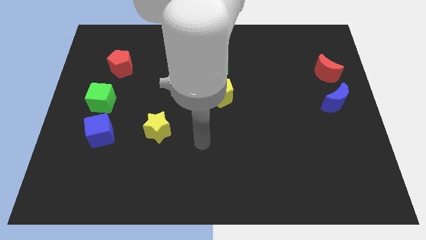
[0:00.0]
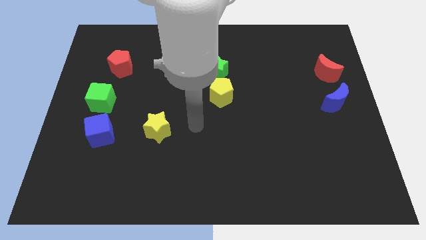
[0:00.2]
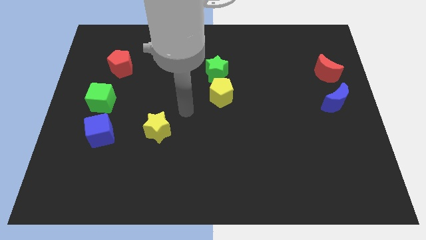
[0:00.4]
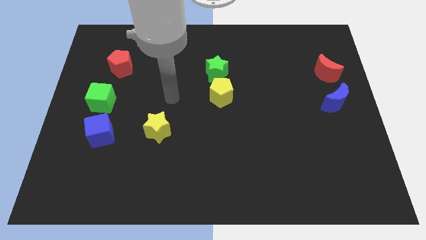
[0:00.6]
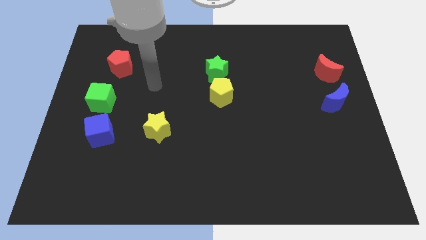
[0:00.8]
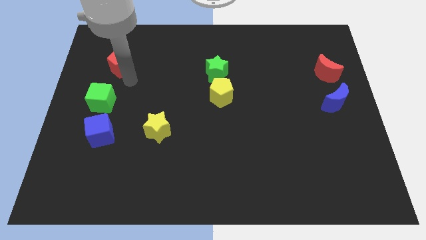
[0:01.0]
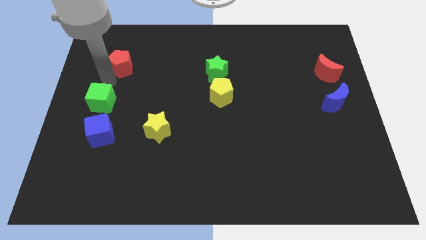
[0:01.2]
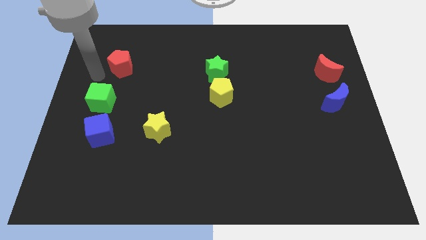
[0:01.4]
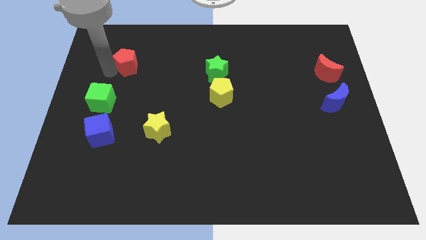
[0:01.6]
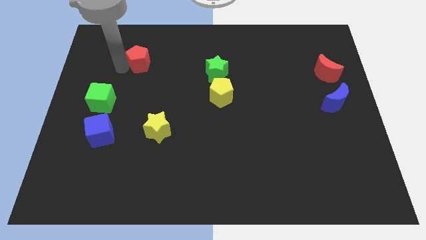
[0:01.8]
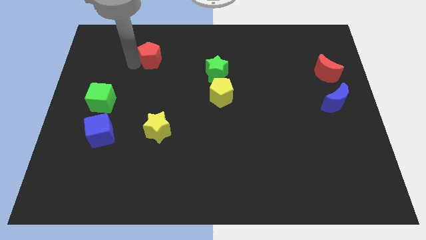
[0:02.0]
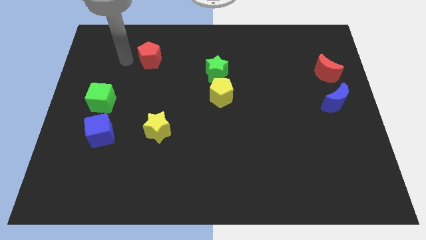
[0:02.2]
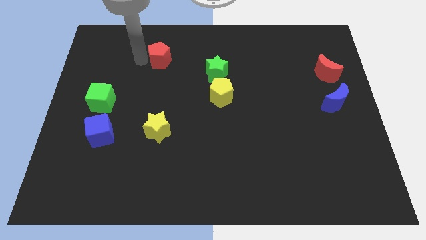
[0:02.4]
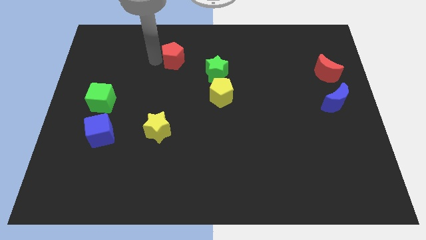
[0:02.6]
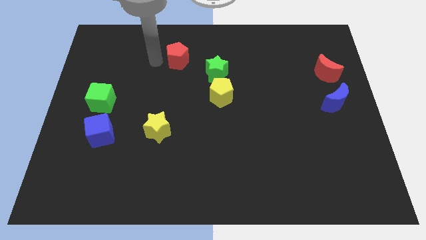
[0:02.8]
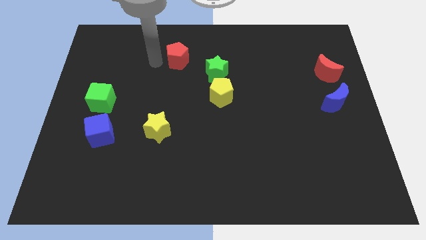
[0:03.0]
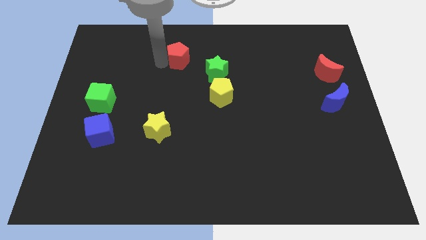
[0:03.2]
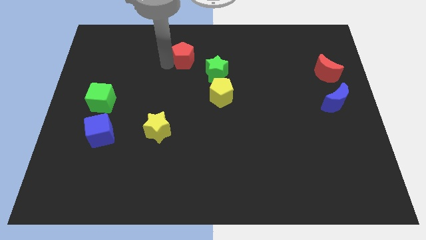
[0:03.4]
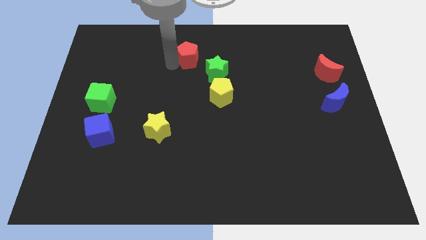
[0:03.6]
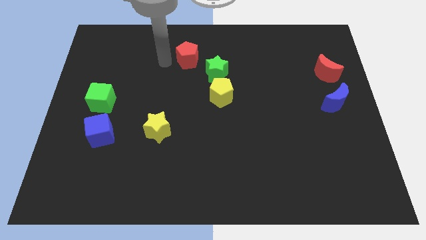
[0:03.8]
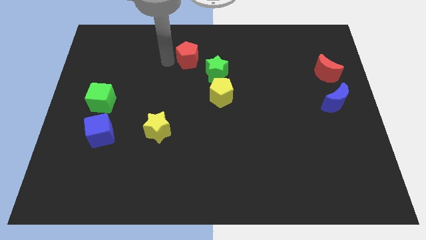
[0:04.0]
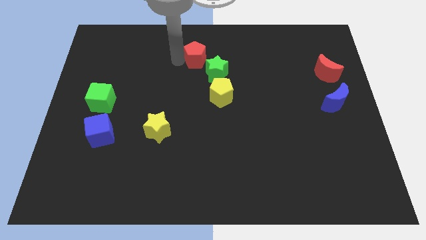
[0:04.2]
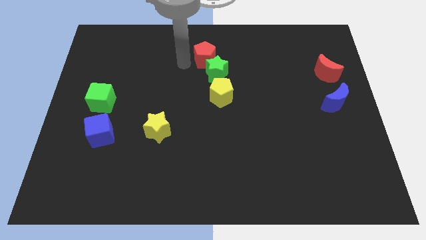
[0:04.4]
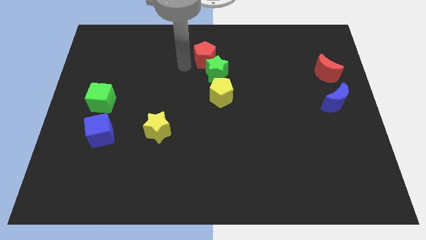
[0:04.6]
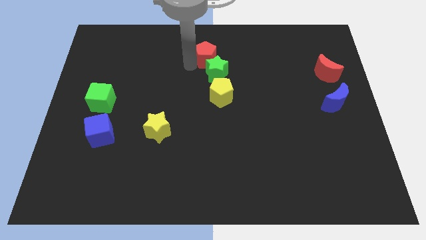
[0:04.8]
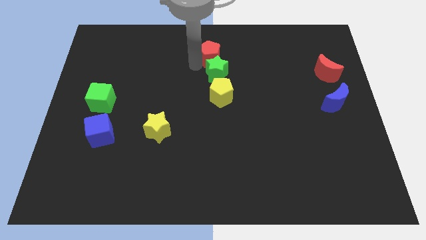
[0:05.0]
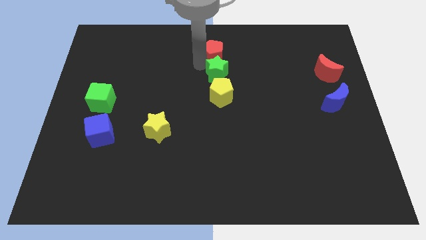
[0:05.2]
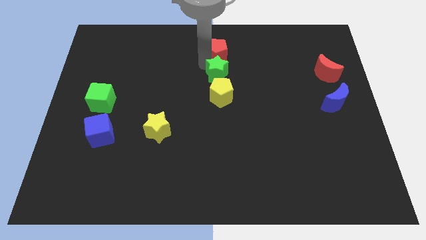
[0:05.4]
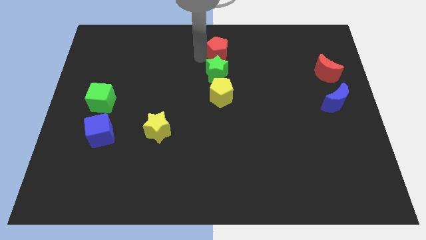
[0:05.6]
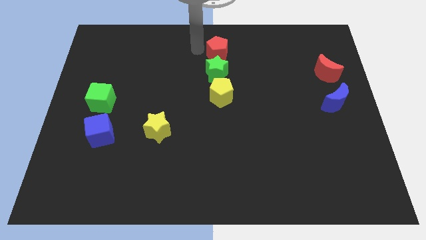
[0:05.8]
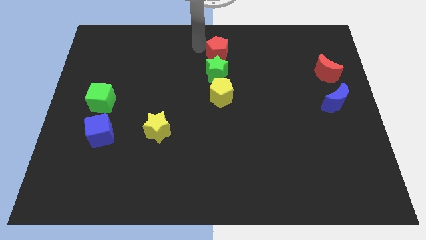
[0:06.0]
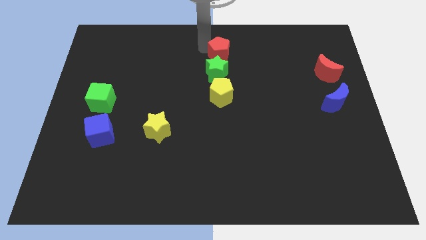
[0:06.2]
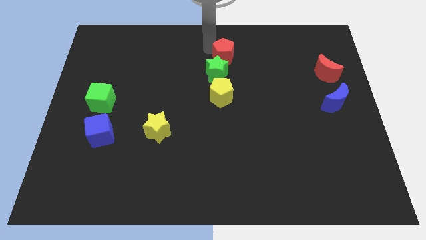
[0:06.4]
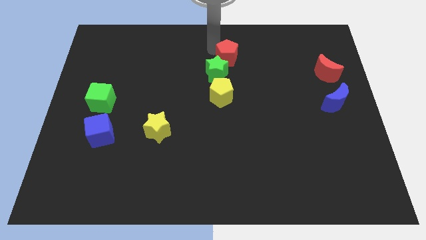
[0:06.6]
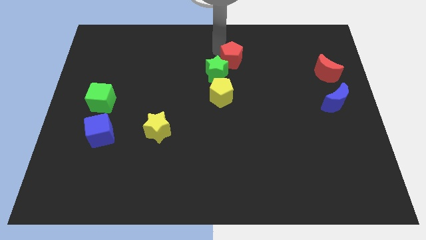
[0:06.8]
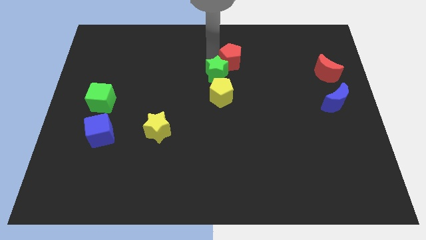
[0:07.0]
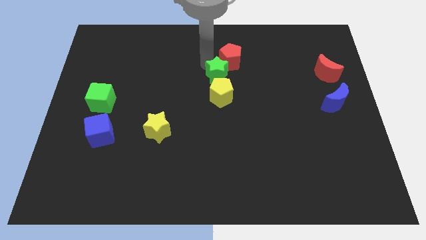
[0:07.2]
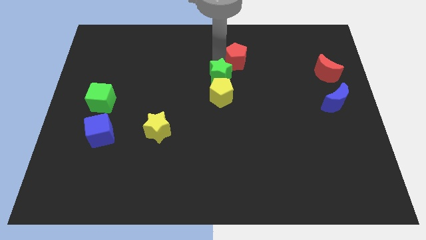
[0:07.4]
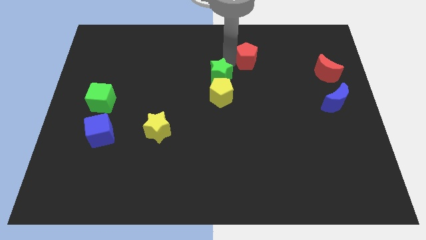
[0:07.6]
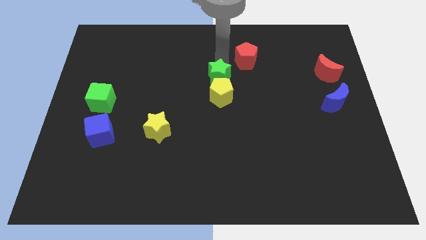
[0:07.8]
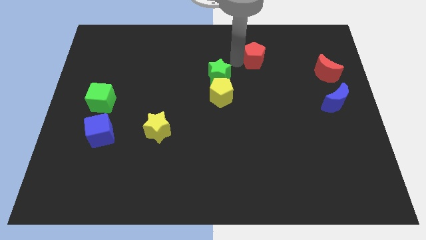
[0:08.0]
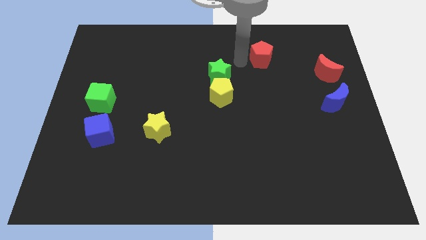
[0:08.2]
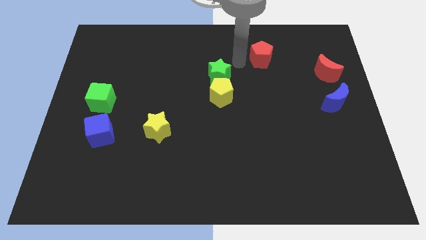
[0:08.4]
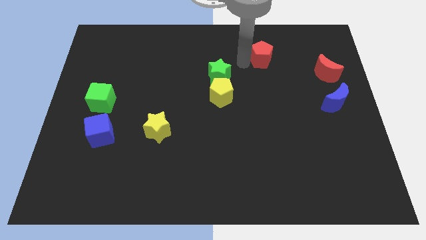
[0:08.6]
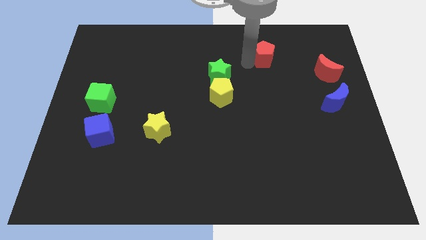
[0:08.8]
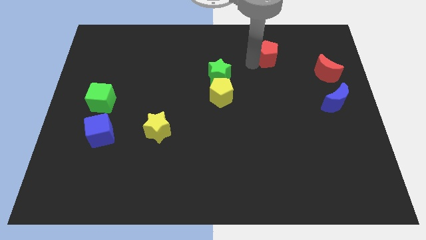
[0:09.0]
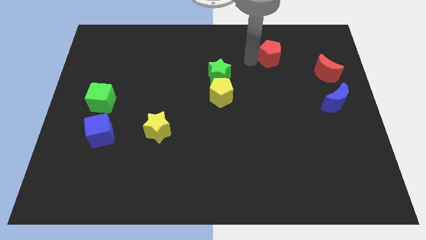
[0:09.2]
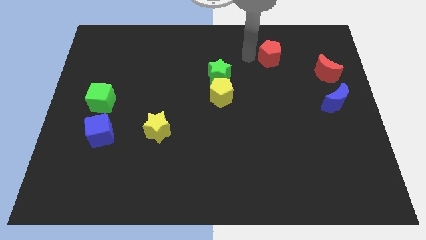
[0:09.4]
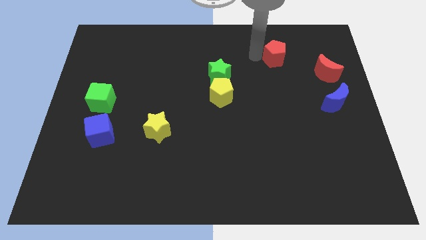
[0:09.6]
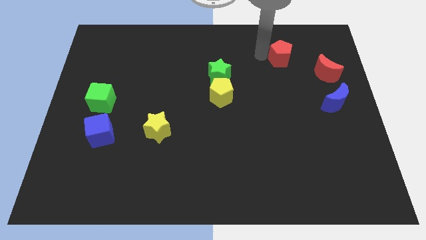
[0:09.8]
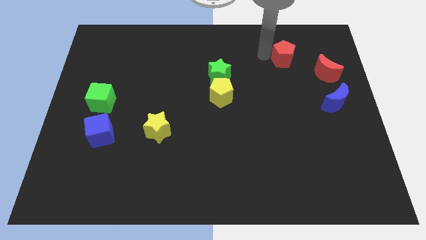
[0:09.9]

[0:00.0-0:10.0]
slide the red pentagon to the top left side of the red moon

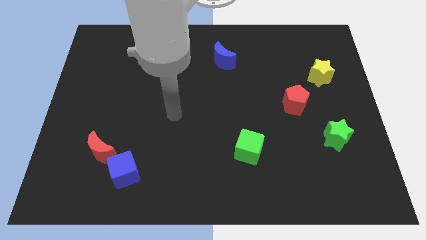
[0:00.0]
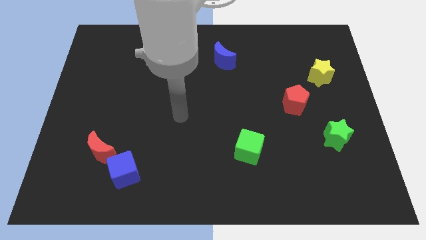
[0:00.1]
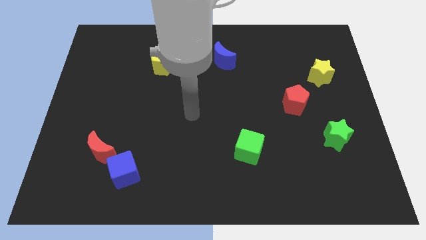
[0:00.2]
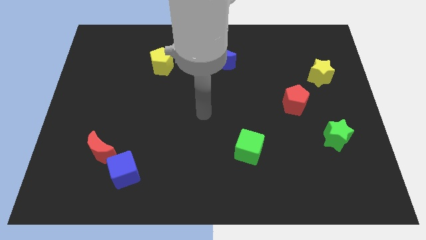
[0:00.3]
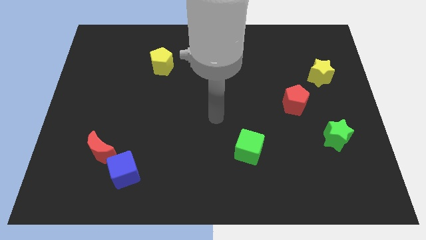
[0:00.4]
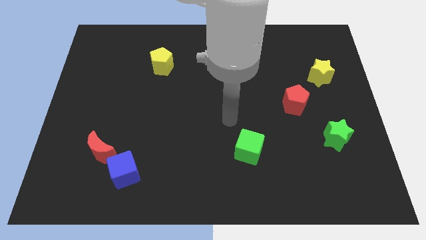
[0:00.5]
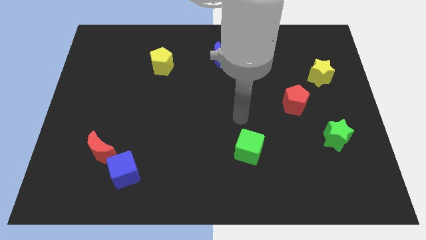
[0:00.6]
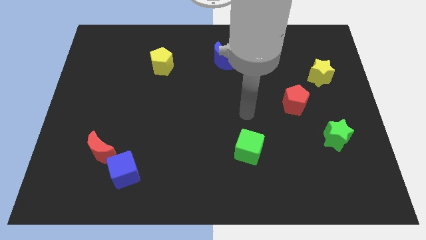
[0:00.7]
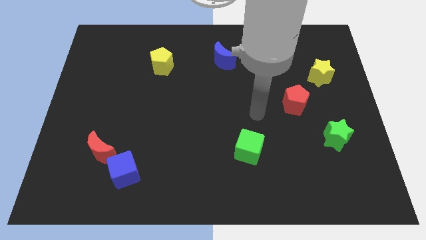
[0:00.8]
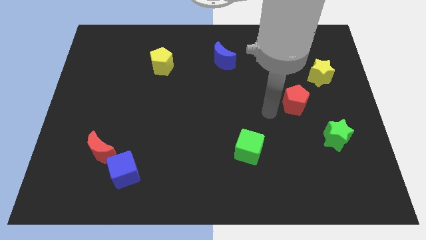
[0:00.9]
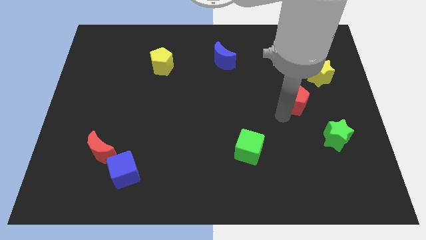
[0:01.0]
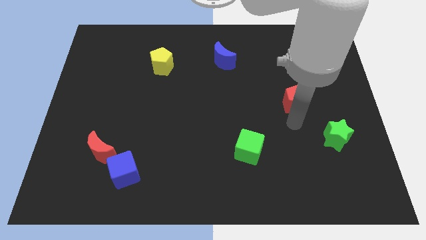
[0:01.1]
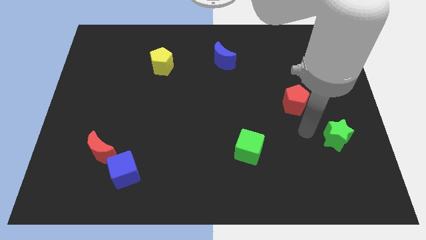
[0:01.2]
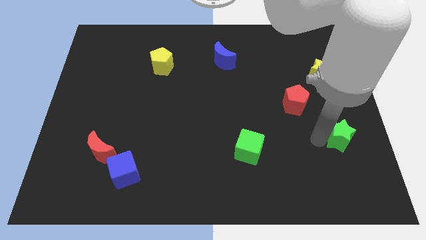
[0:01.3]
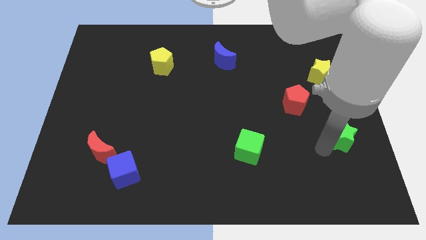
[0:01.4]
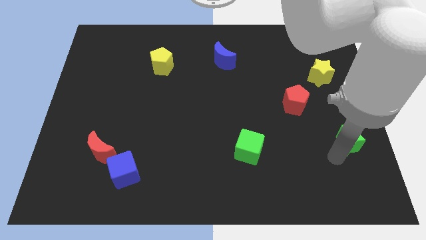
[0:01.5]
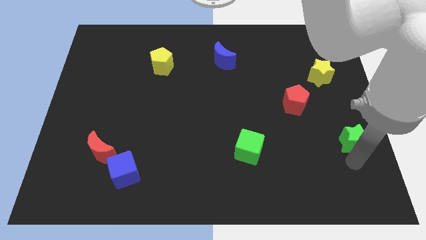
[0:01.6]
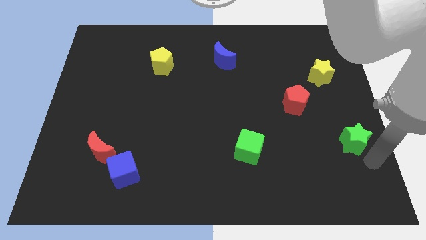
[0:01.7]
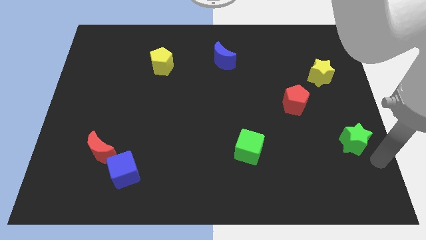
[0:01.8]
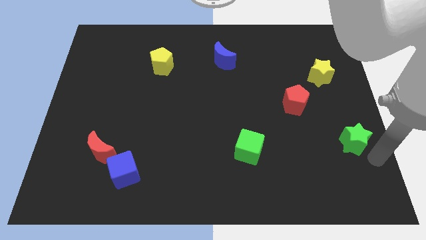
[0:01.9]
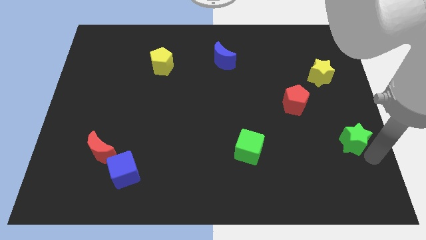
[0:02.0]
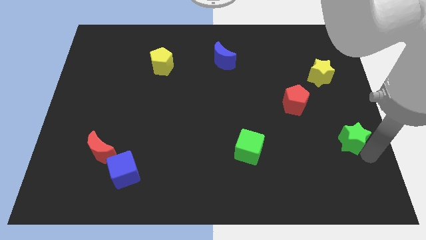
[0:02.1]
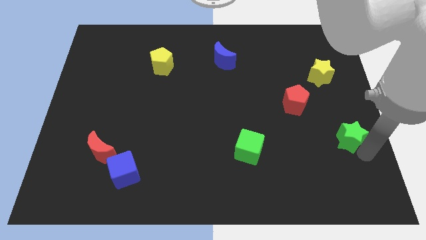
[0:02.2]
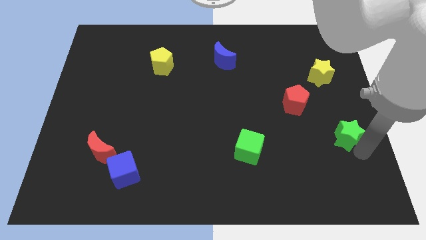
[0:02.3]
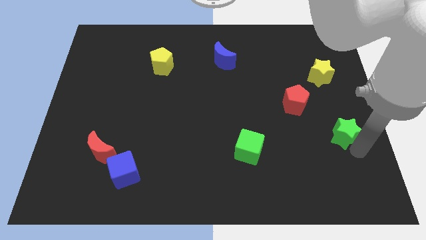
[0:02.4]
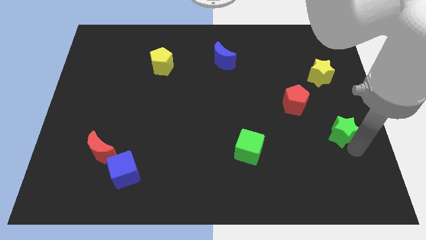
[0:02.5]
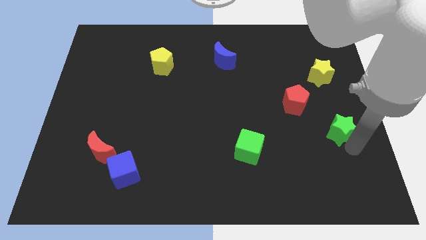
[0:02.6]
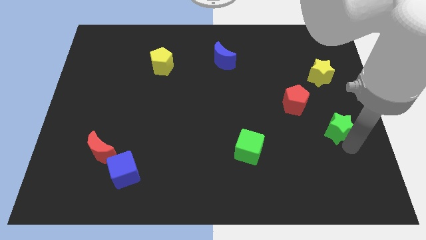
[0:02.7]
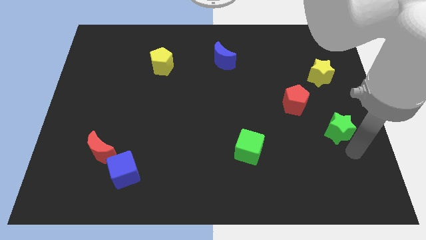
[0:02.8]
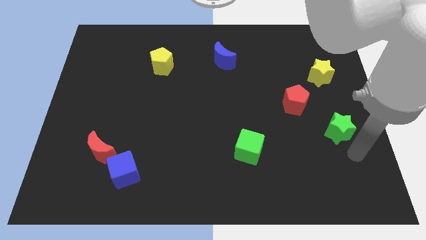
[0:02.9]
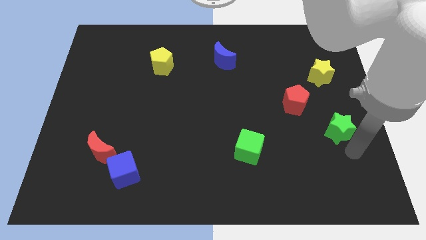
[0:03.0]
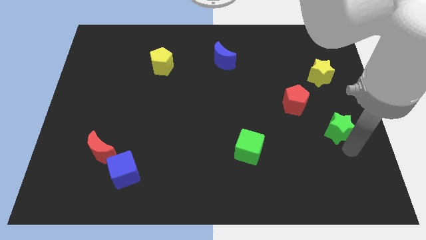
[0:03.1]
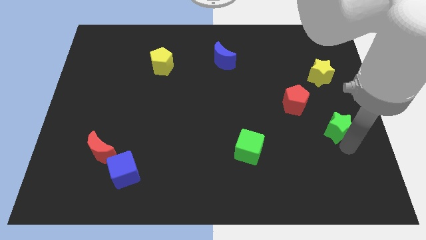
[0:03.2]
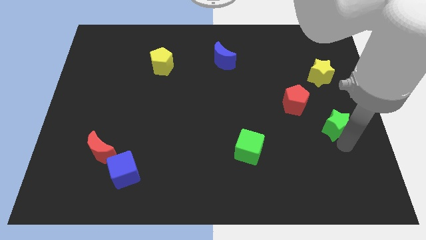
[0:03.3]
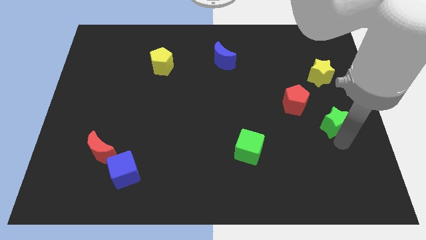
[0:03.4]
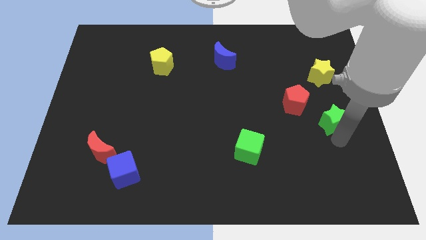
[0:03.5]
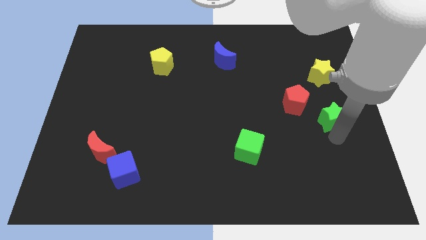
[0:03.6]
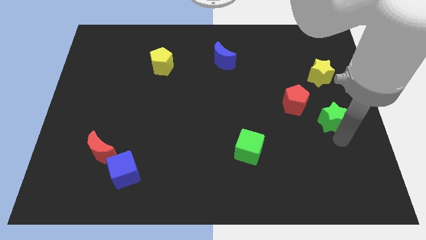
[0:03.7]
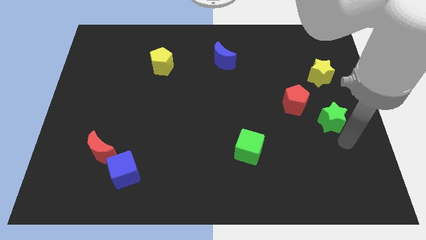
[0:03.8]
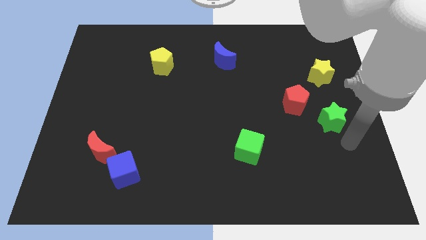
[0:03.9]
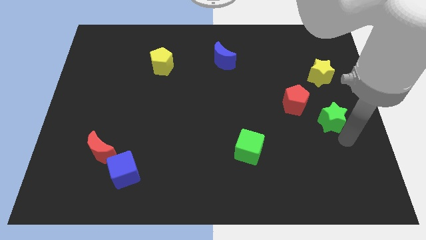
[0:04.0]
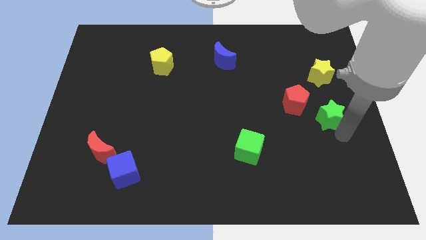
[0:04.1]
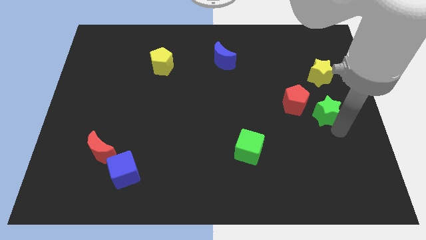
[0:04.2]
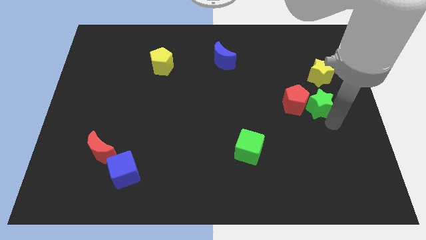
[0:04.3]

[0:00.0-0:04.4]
push the green star to the top right side of the red pentagon
